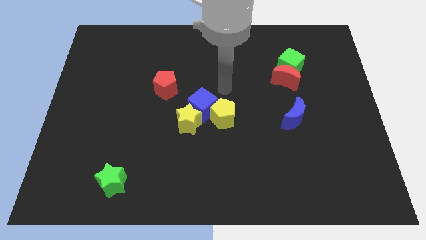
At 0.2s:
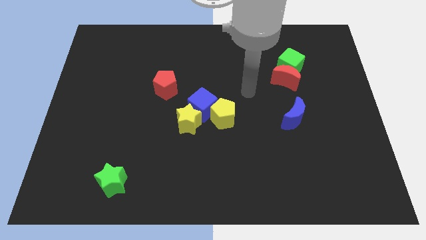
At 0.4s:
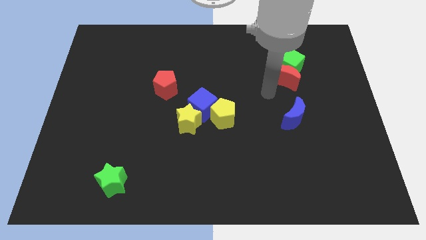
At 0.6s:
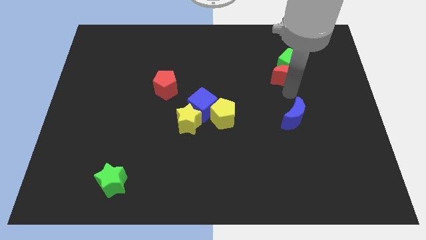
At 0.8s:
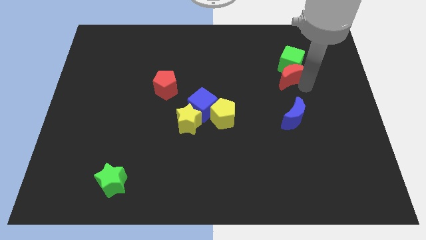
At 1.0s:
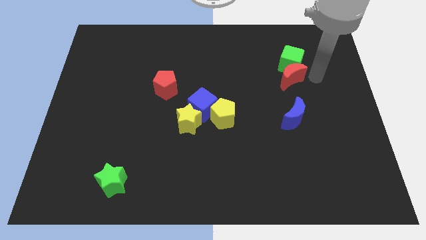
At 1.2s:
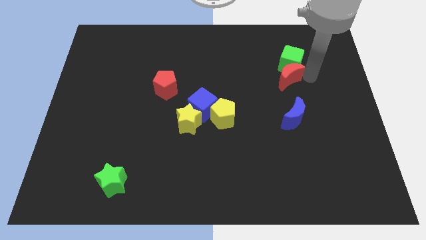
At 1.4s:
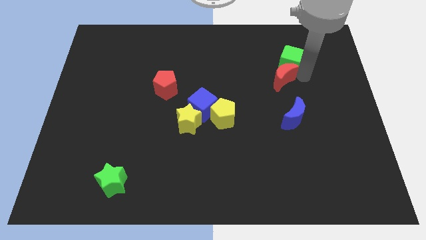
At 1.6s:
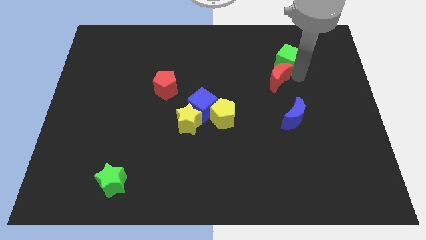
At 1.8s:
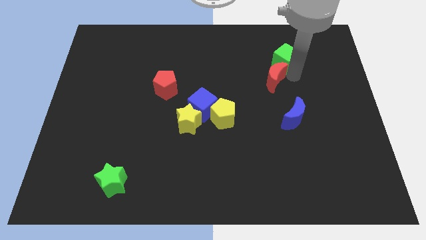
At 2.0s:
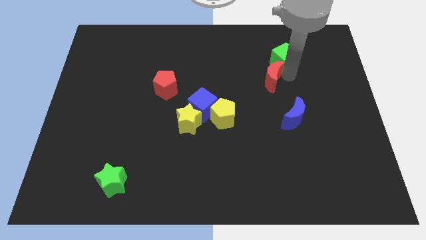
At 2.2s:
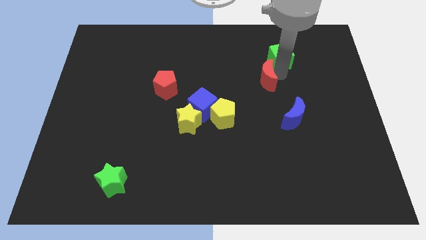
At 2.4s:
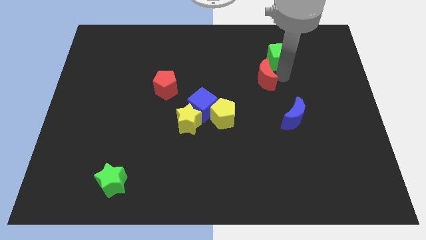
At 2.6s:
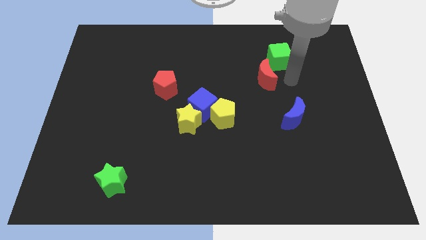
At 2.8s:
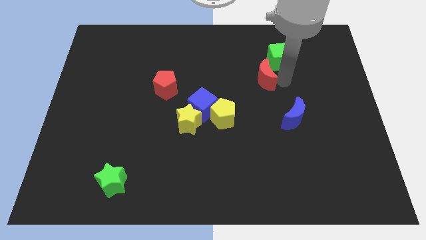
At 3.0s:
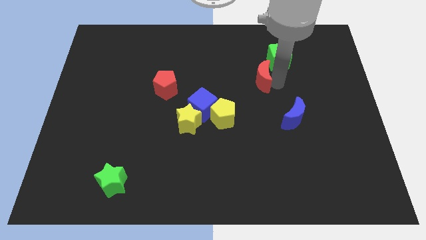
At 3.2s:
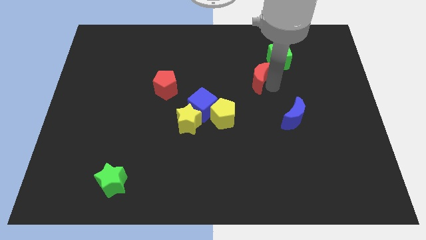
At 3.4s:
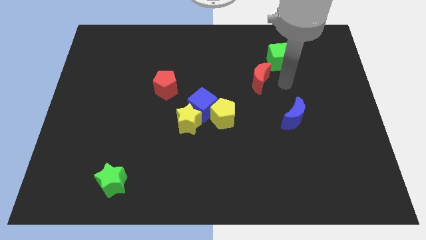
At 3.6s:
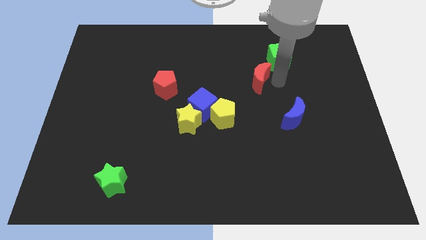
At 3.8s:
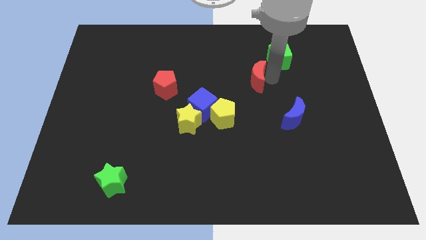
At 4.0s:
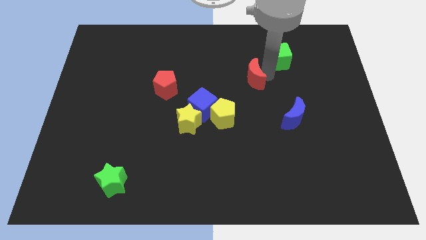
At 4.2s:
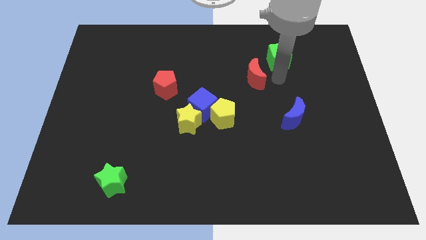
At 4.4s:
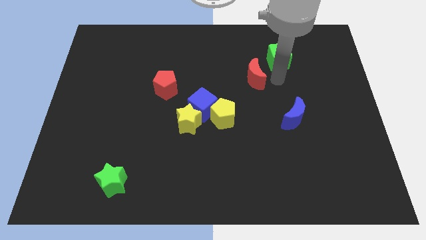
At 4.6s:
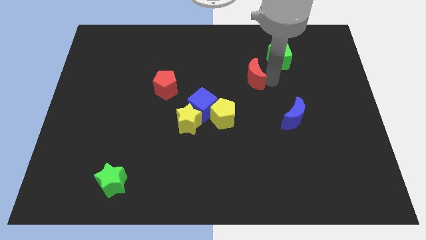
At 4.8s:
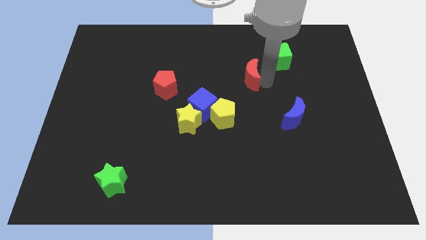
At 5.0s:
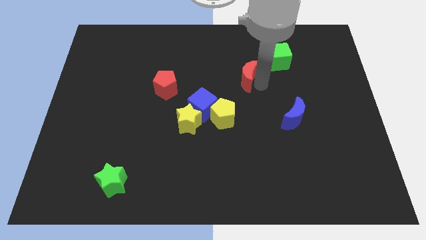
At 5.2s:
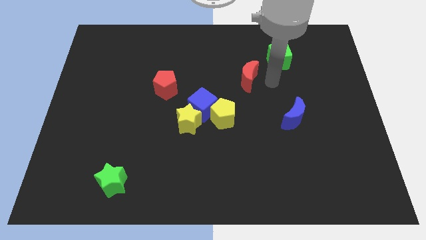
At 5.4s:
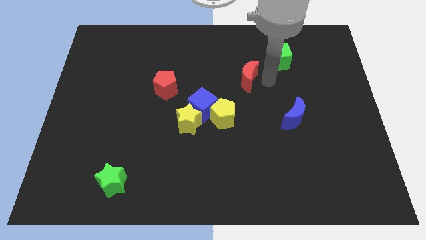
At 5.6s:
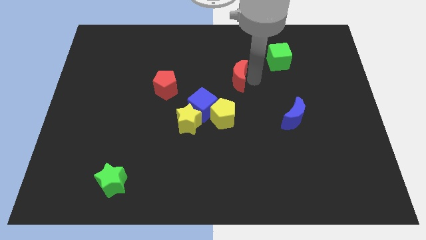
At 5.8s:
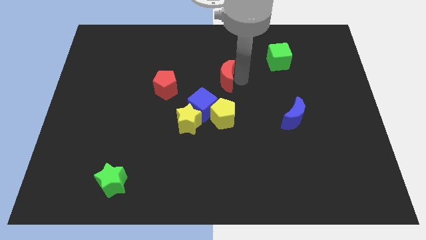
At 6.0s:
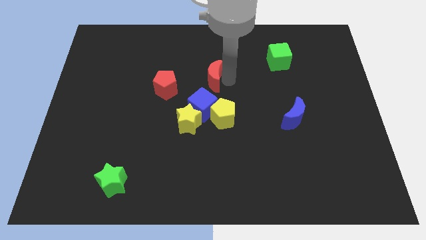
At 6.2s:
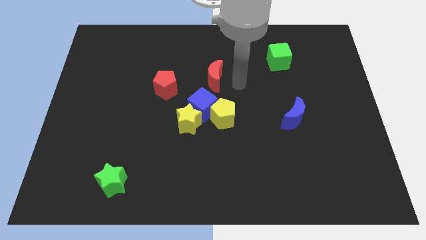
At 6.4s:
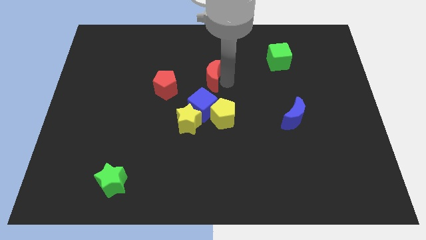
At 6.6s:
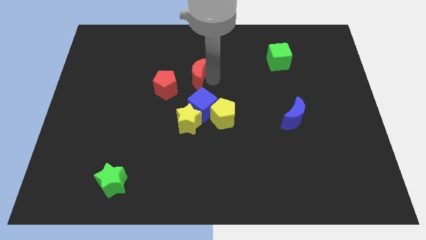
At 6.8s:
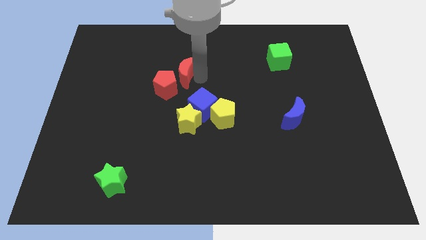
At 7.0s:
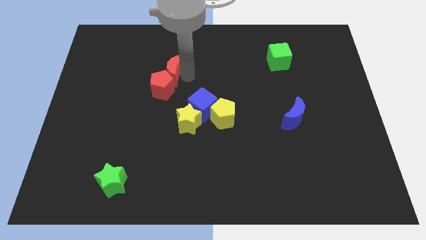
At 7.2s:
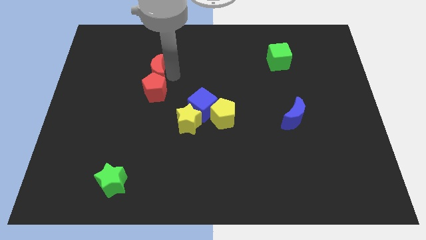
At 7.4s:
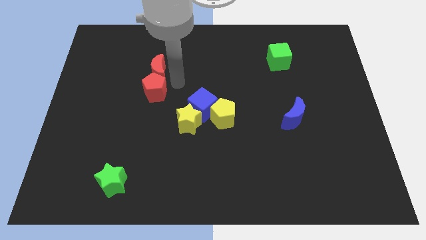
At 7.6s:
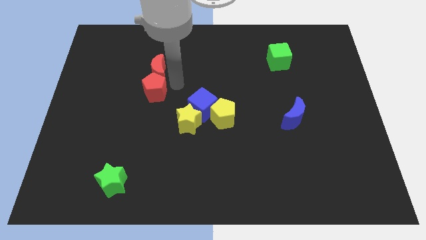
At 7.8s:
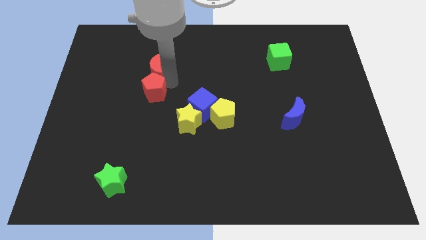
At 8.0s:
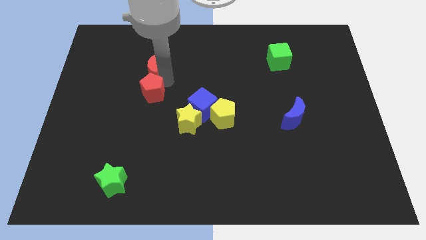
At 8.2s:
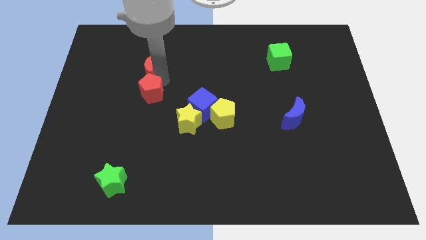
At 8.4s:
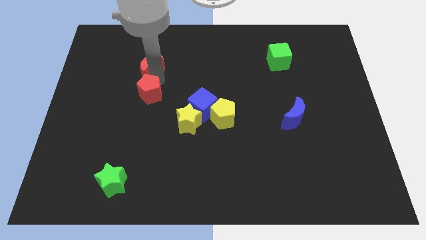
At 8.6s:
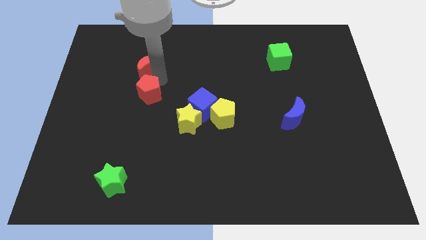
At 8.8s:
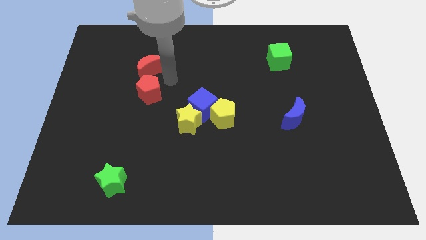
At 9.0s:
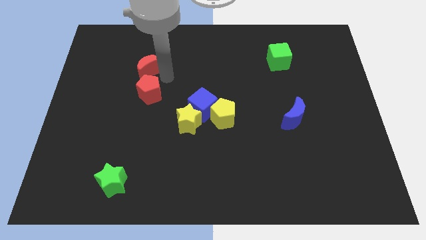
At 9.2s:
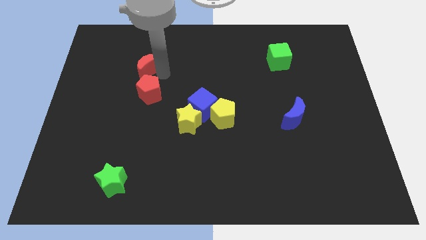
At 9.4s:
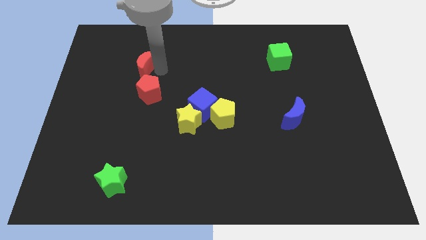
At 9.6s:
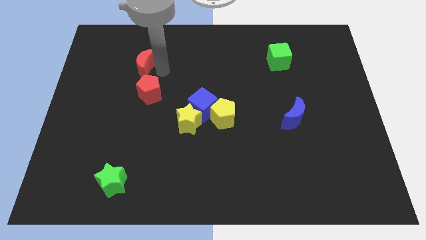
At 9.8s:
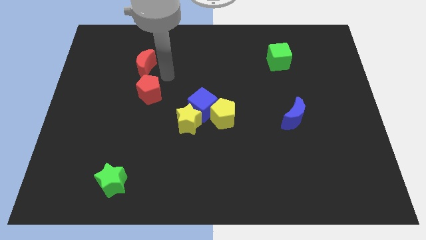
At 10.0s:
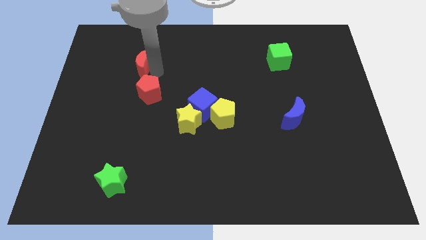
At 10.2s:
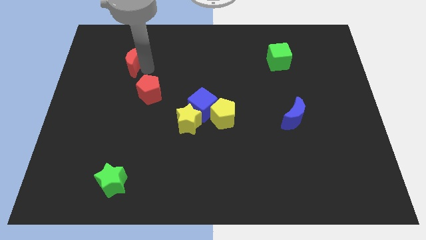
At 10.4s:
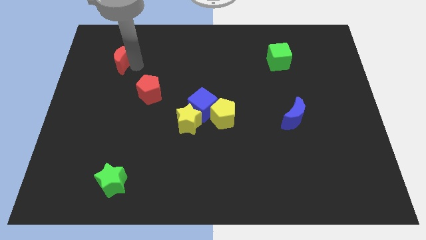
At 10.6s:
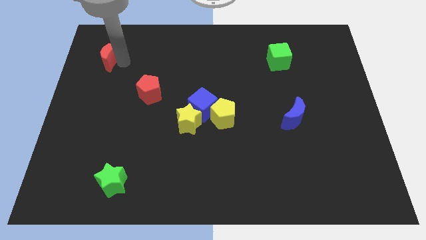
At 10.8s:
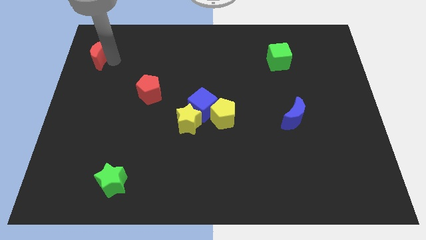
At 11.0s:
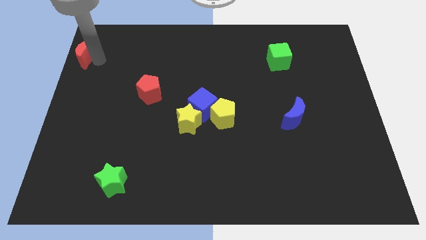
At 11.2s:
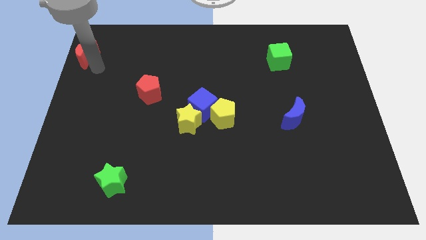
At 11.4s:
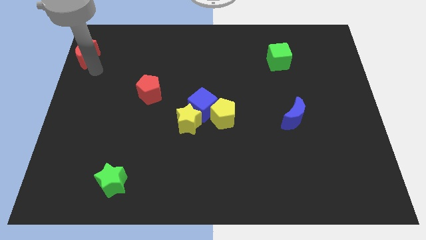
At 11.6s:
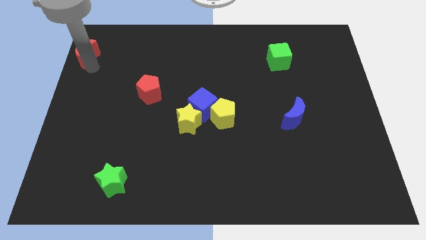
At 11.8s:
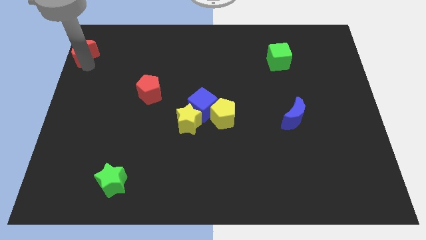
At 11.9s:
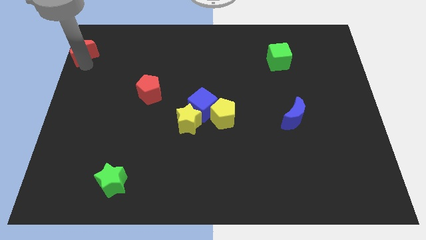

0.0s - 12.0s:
move the red moon to the top left corner
